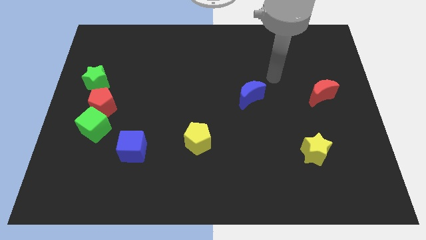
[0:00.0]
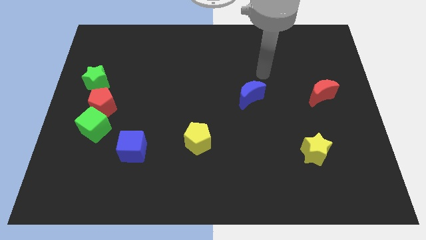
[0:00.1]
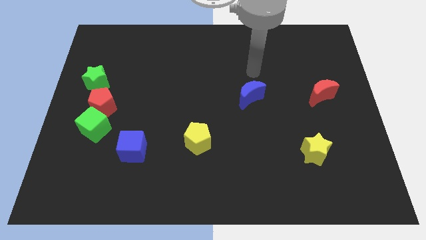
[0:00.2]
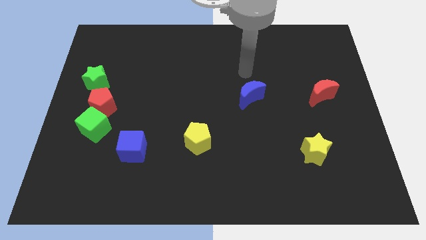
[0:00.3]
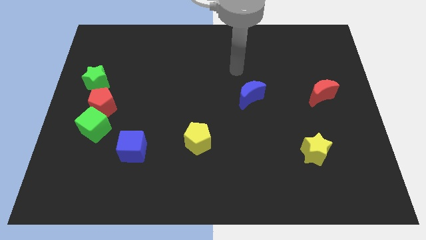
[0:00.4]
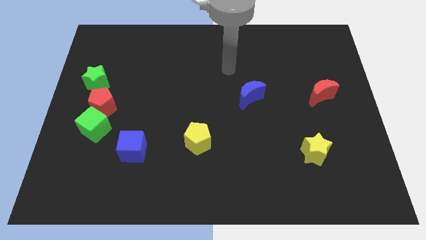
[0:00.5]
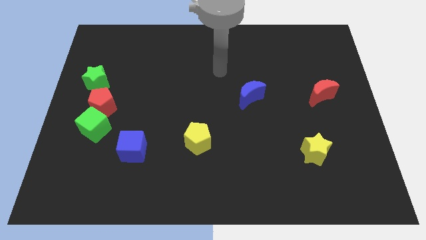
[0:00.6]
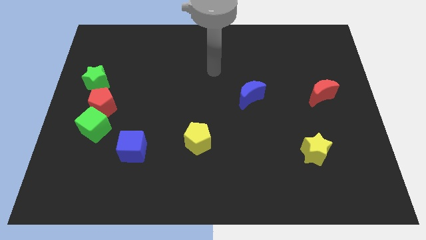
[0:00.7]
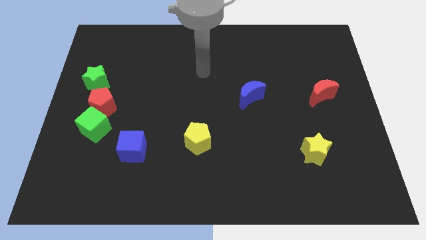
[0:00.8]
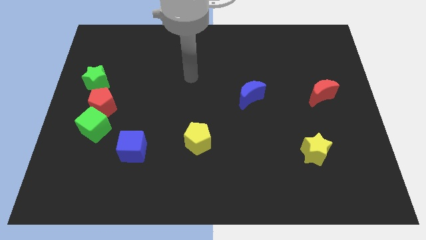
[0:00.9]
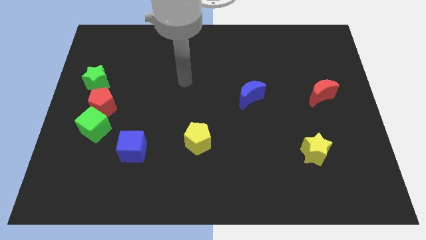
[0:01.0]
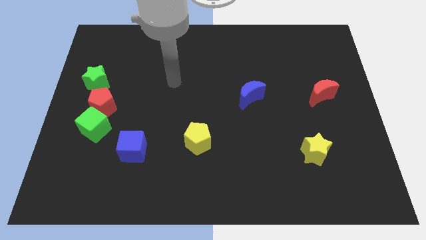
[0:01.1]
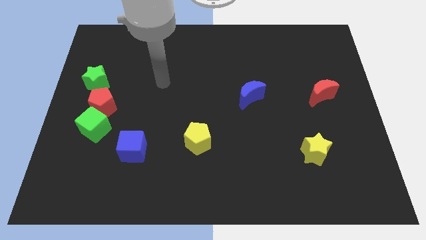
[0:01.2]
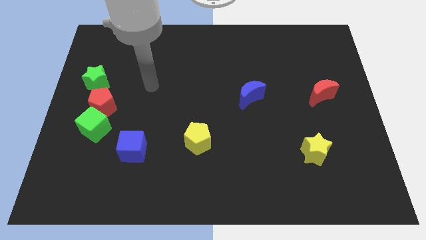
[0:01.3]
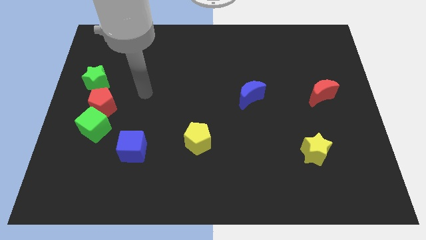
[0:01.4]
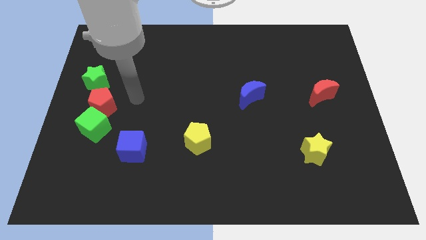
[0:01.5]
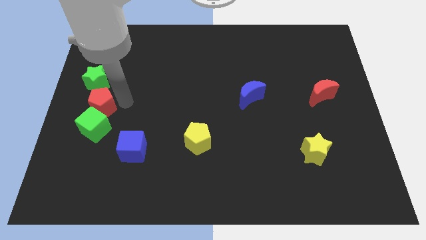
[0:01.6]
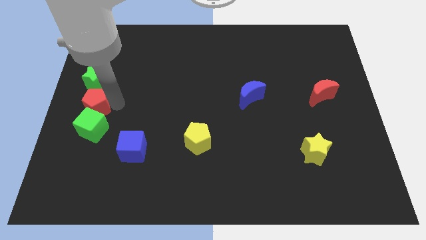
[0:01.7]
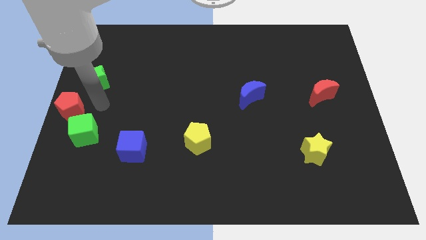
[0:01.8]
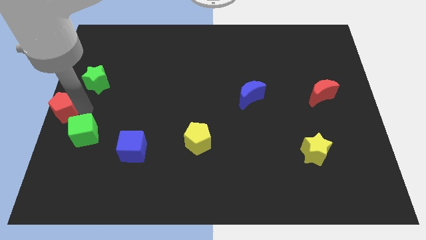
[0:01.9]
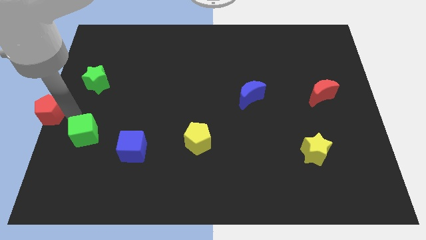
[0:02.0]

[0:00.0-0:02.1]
pull the green cube apart from the red pentagon

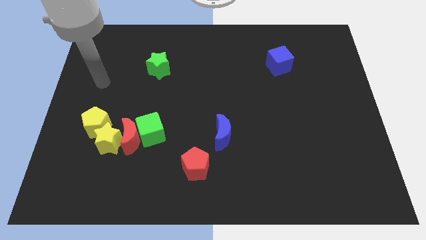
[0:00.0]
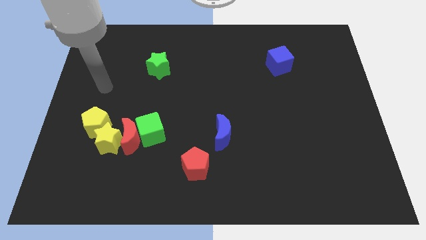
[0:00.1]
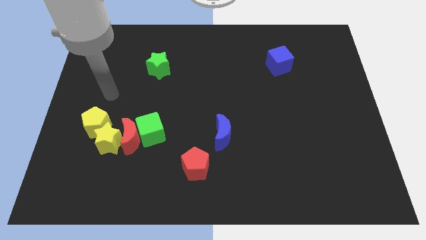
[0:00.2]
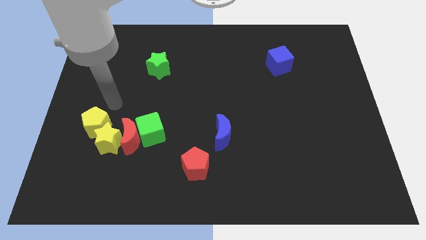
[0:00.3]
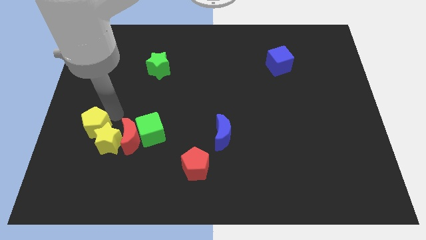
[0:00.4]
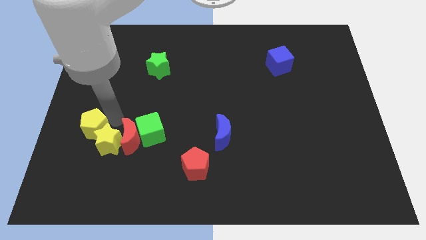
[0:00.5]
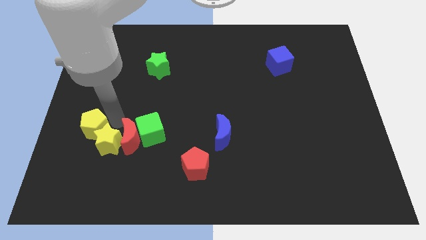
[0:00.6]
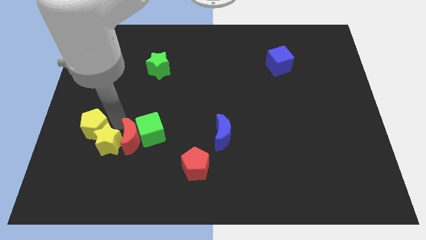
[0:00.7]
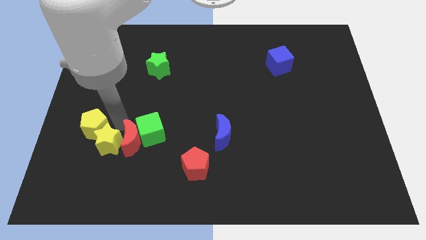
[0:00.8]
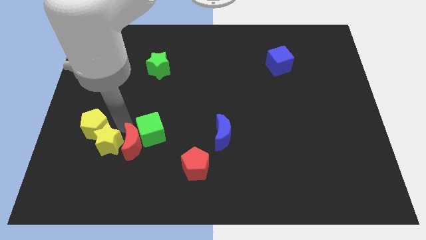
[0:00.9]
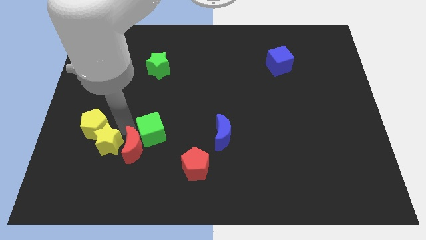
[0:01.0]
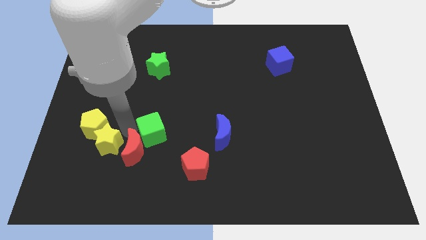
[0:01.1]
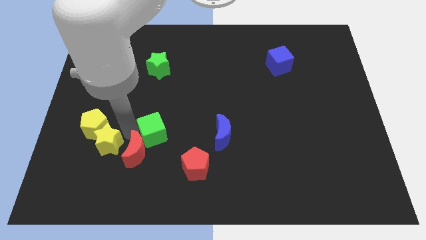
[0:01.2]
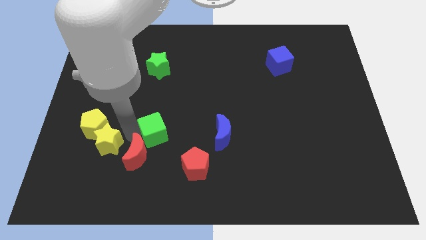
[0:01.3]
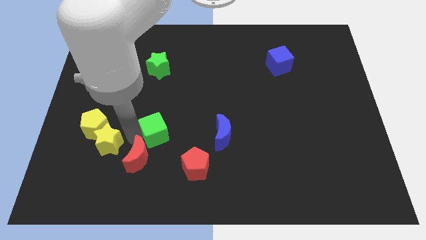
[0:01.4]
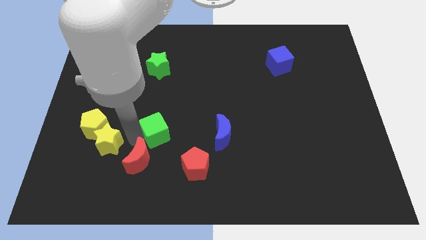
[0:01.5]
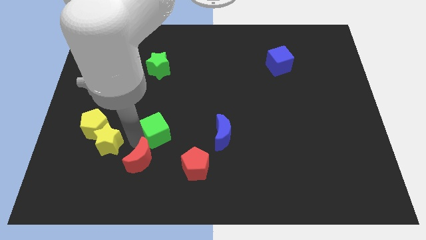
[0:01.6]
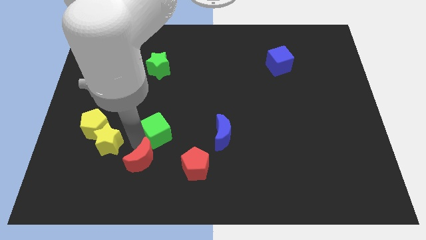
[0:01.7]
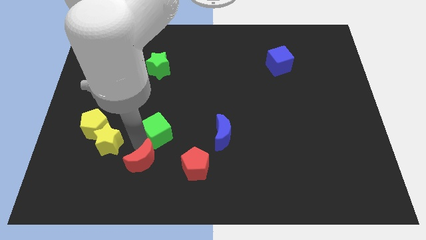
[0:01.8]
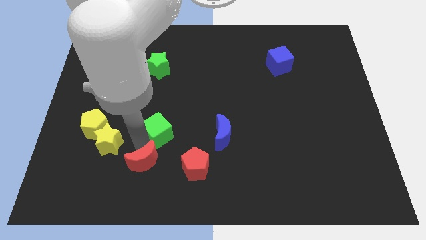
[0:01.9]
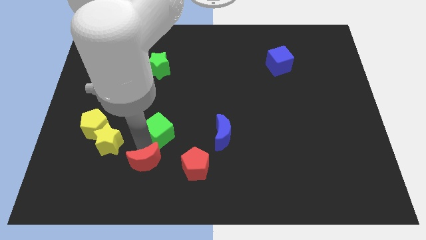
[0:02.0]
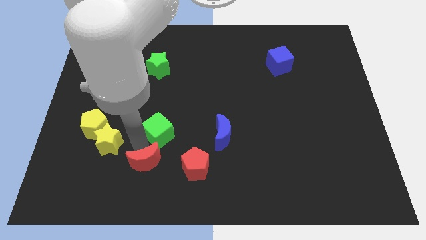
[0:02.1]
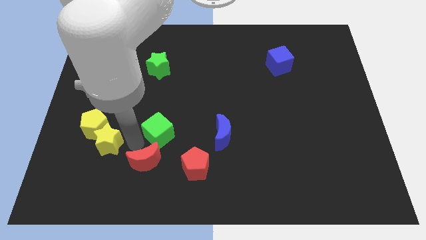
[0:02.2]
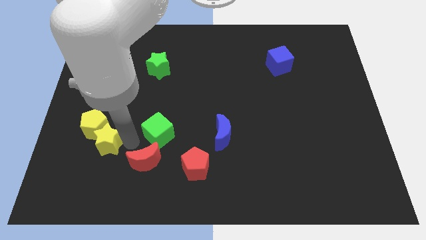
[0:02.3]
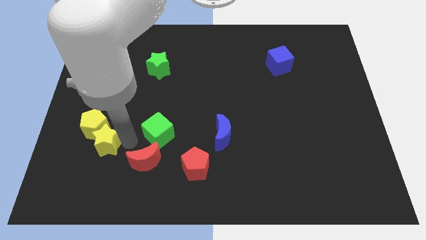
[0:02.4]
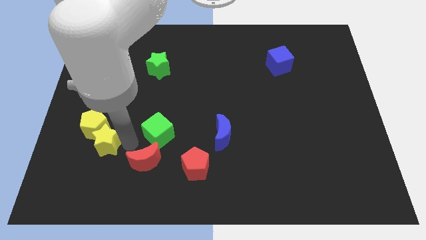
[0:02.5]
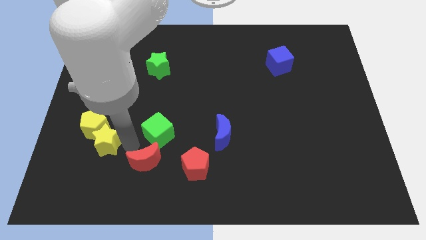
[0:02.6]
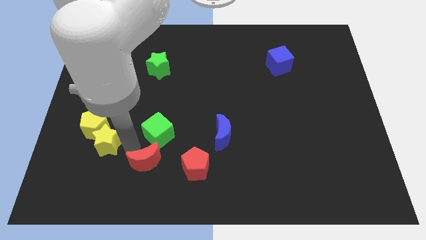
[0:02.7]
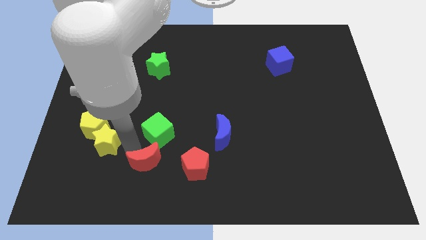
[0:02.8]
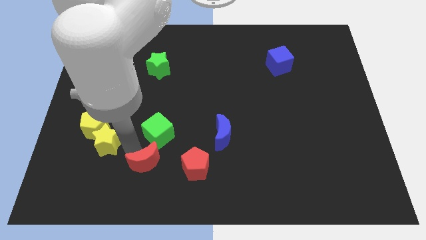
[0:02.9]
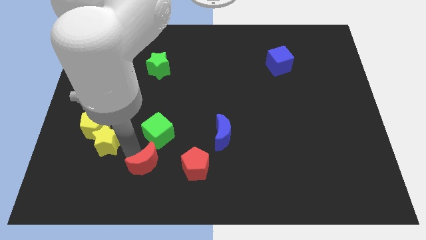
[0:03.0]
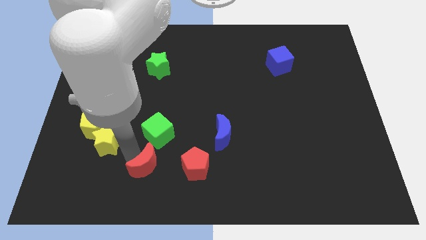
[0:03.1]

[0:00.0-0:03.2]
separate the red moon from the green cube, yellow star, and yellow pentagon

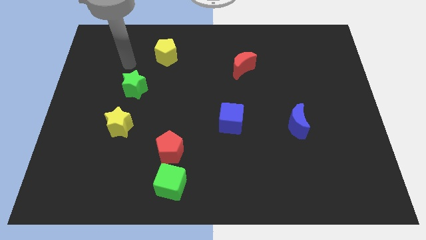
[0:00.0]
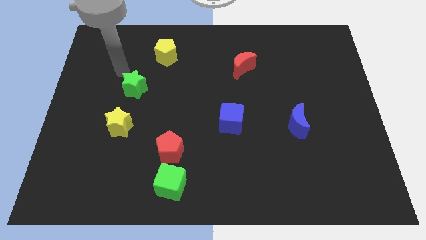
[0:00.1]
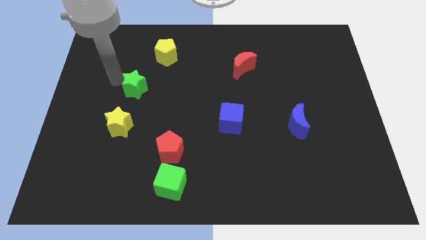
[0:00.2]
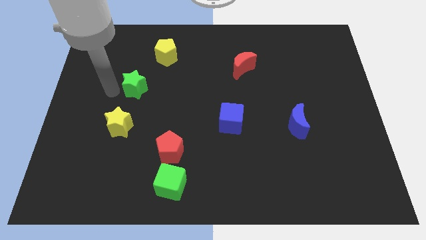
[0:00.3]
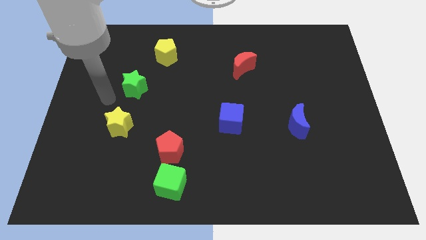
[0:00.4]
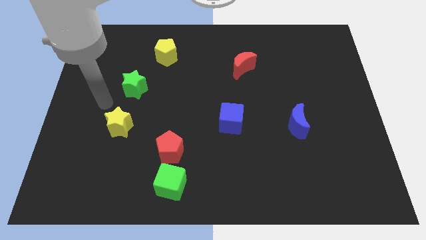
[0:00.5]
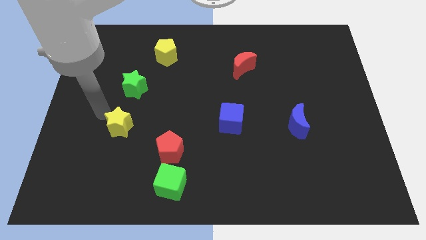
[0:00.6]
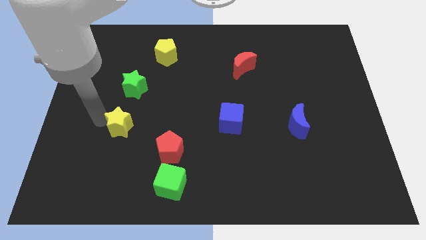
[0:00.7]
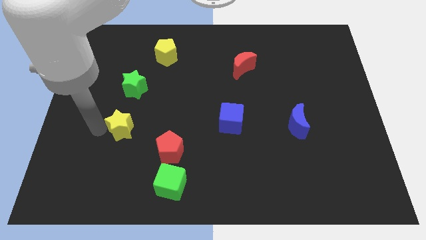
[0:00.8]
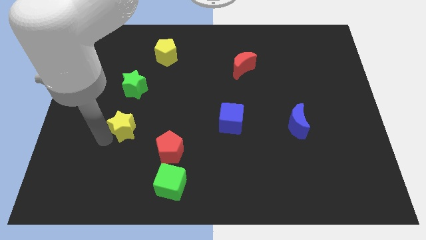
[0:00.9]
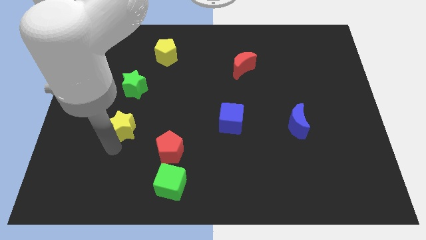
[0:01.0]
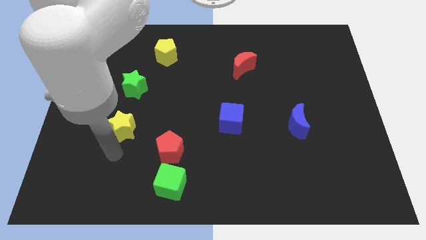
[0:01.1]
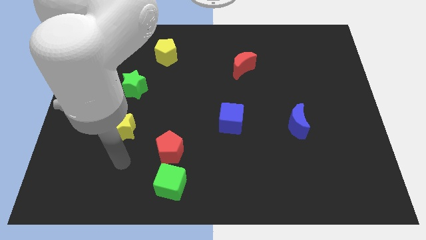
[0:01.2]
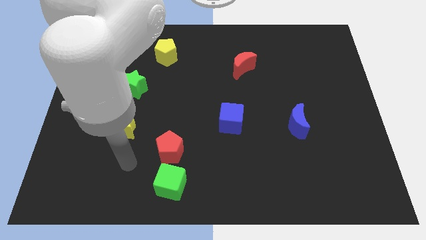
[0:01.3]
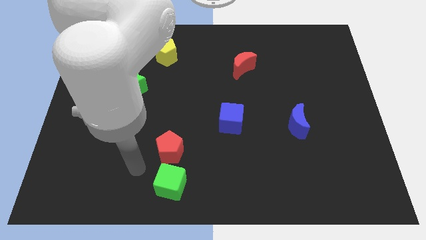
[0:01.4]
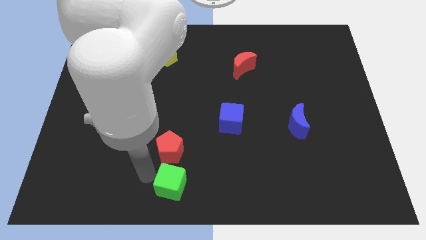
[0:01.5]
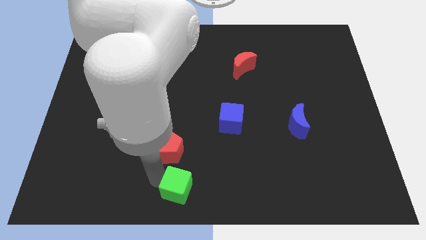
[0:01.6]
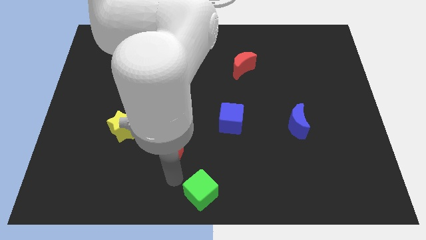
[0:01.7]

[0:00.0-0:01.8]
separate the red pentagon from the green cube

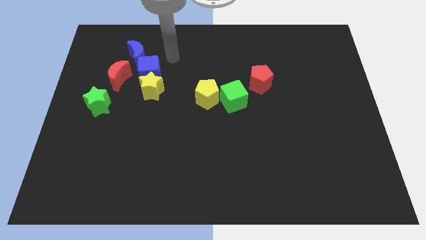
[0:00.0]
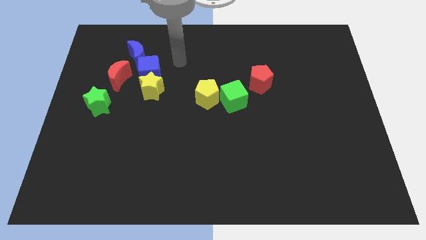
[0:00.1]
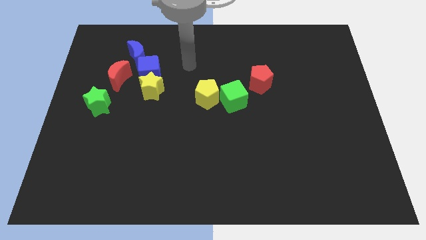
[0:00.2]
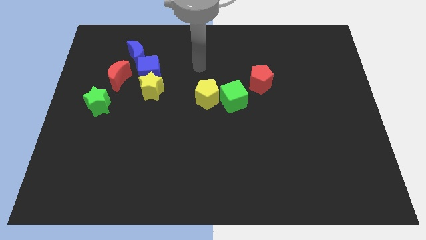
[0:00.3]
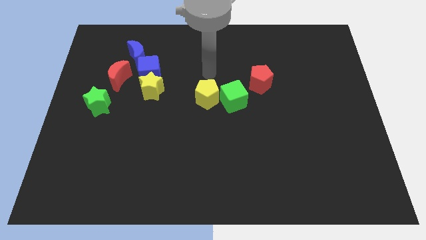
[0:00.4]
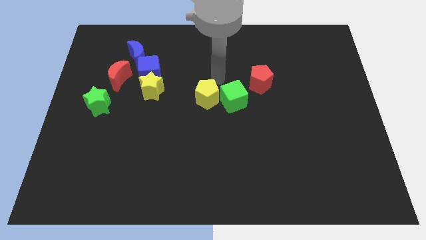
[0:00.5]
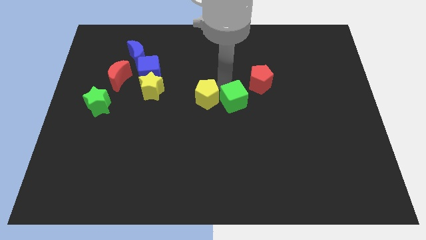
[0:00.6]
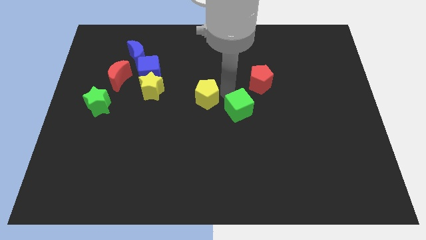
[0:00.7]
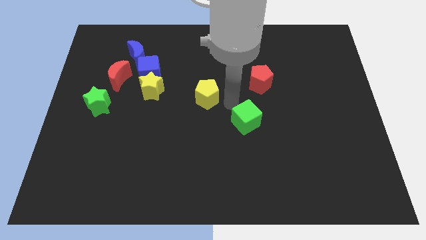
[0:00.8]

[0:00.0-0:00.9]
pull the yellow pentagon apart from the green cube

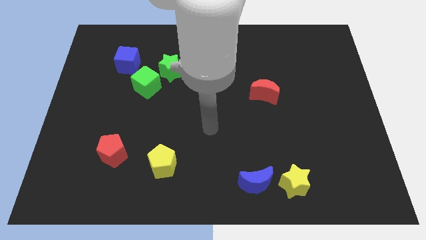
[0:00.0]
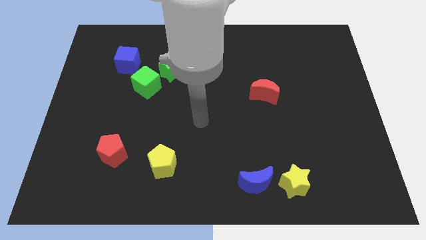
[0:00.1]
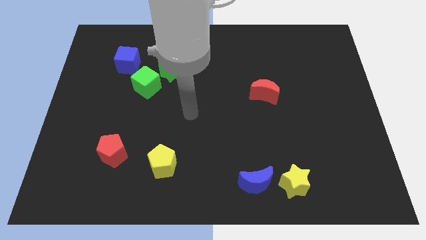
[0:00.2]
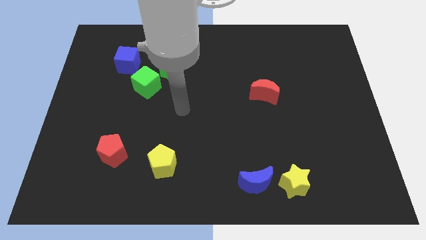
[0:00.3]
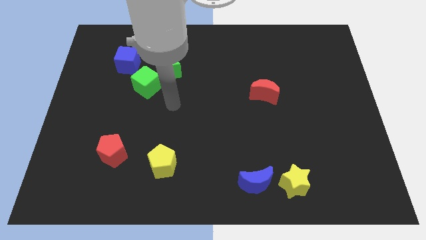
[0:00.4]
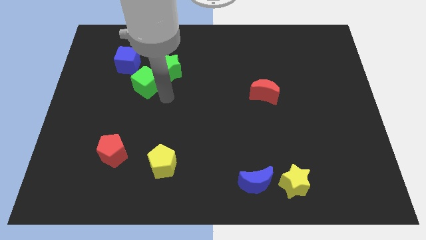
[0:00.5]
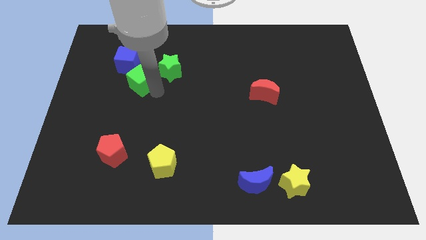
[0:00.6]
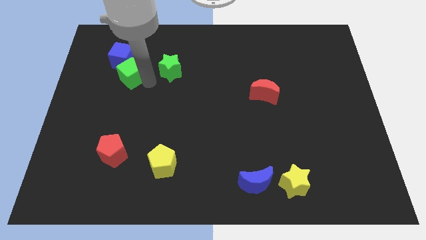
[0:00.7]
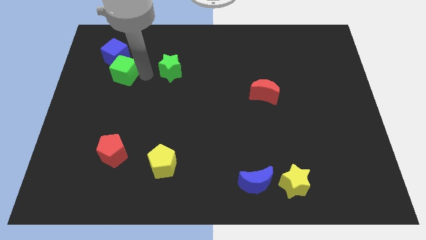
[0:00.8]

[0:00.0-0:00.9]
pull the green star apart from the green cube

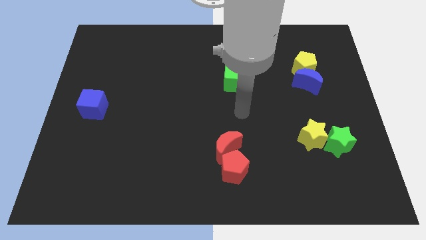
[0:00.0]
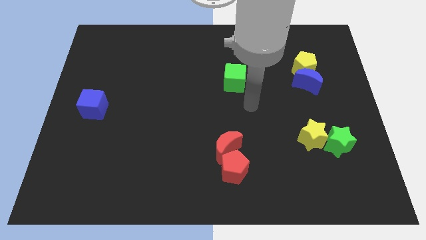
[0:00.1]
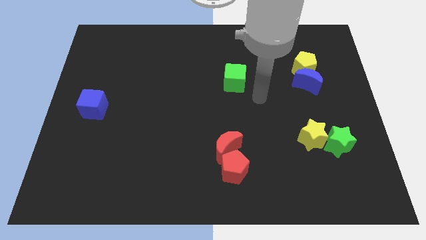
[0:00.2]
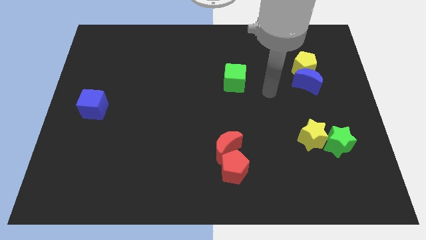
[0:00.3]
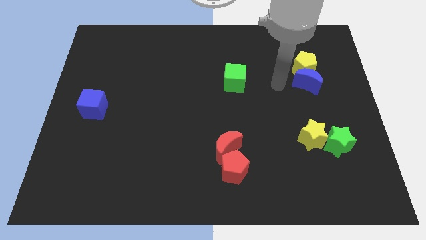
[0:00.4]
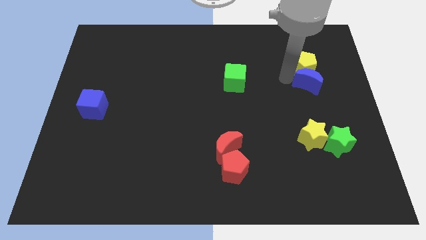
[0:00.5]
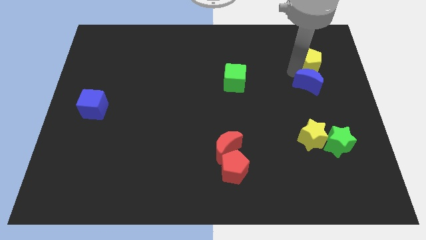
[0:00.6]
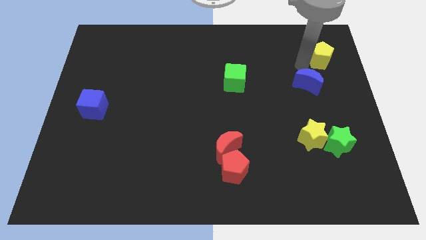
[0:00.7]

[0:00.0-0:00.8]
pull the blue moon apart from the yellow pentagon
